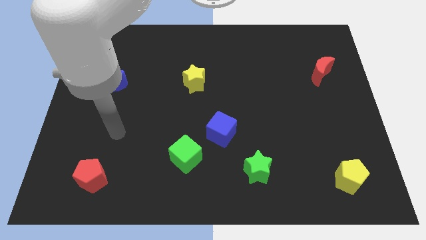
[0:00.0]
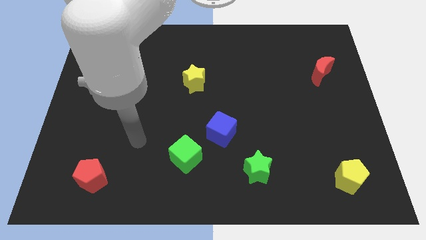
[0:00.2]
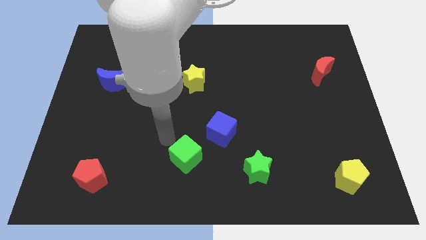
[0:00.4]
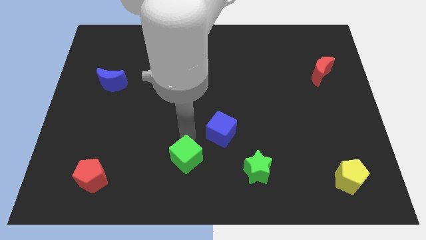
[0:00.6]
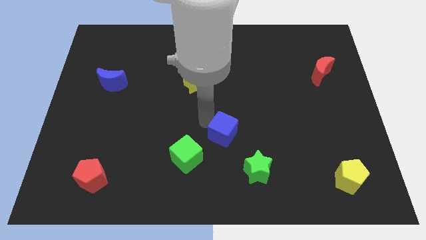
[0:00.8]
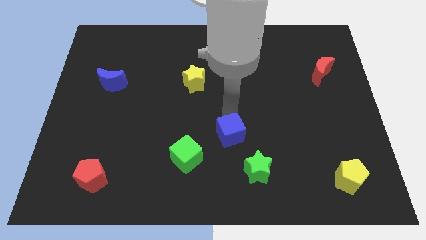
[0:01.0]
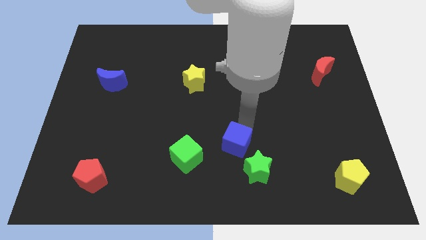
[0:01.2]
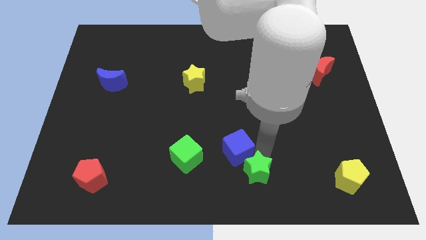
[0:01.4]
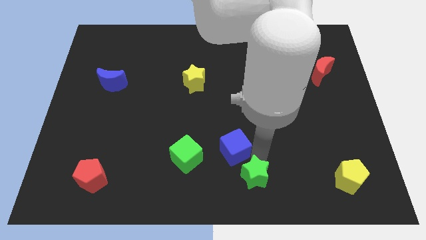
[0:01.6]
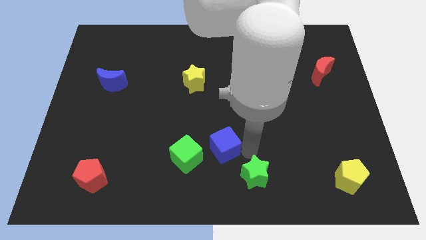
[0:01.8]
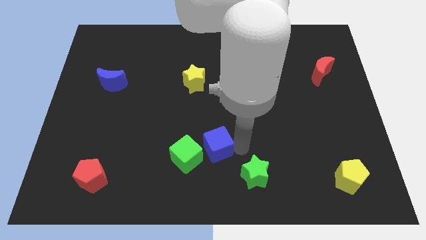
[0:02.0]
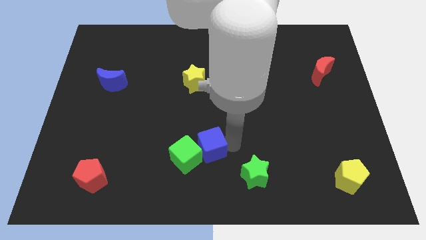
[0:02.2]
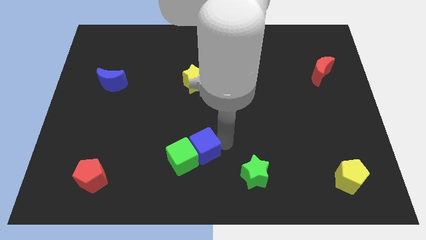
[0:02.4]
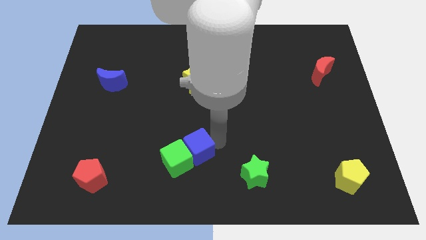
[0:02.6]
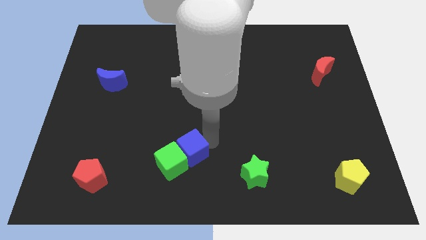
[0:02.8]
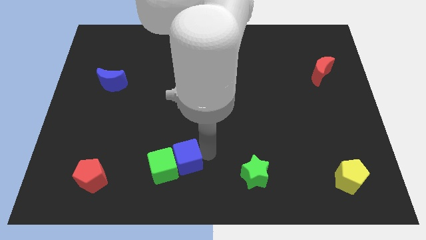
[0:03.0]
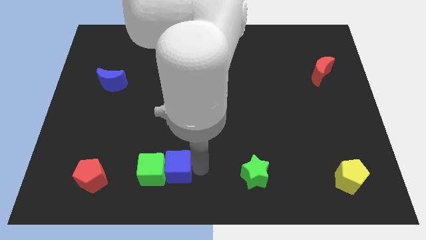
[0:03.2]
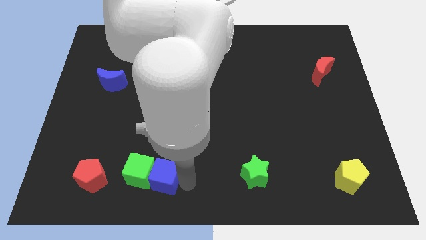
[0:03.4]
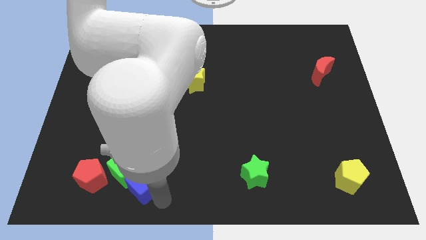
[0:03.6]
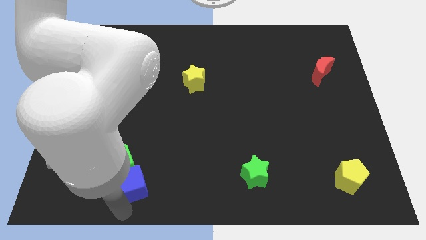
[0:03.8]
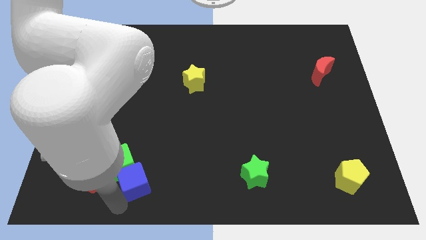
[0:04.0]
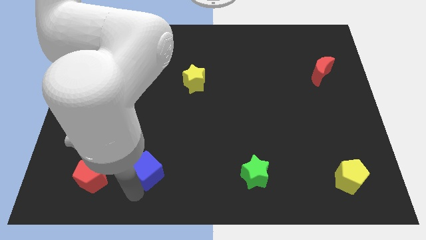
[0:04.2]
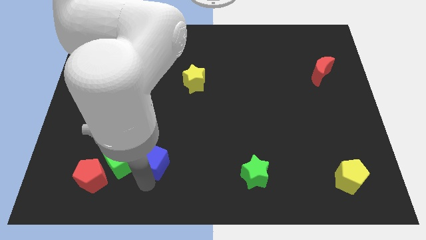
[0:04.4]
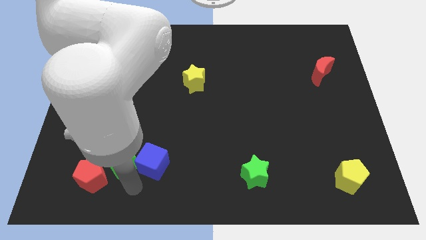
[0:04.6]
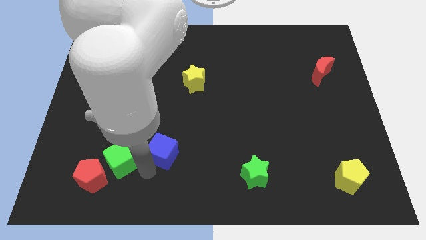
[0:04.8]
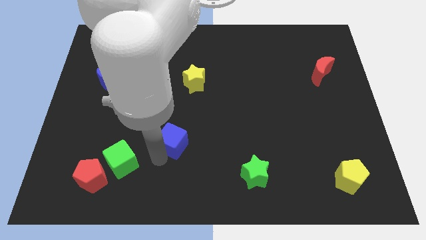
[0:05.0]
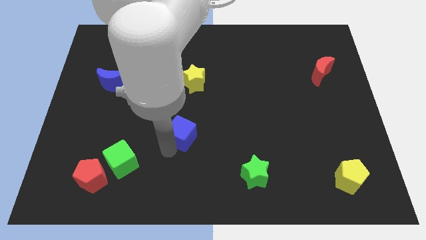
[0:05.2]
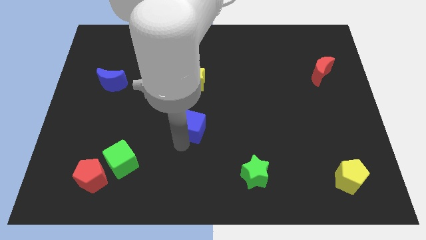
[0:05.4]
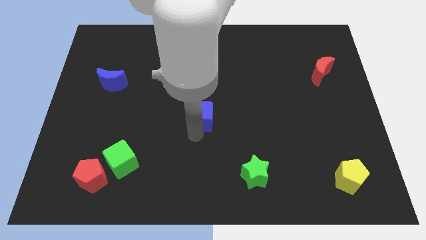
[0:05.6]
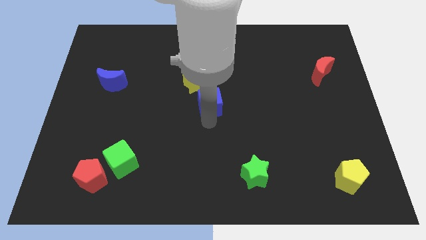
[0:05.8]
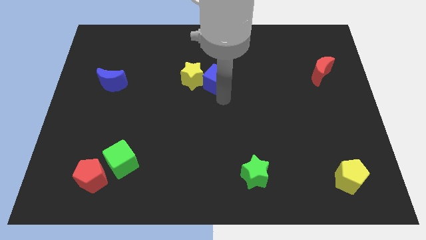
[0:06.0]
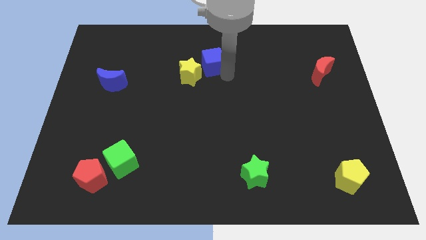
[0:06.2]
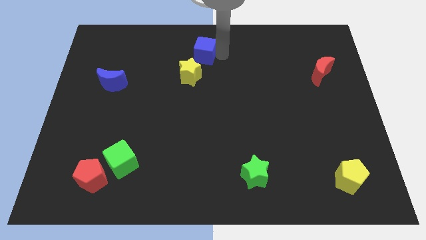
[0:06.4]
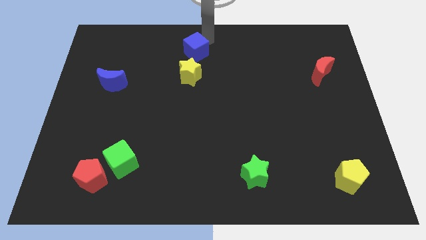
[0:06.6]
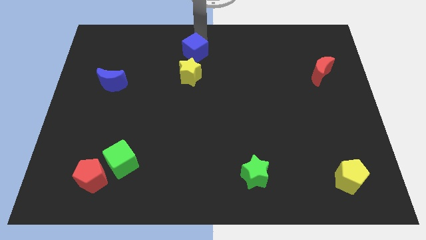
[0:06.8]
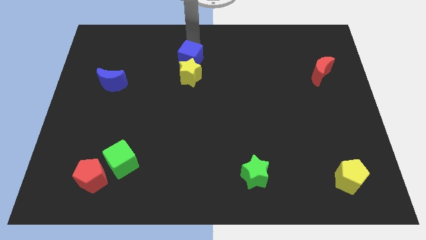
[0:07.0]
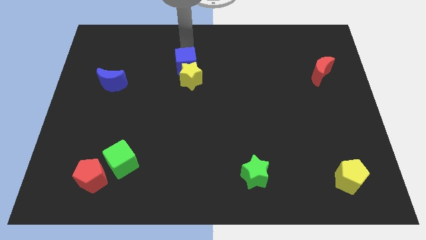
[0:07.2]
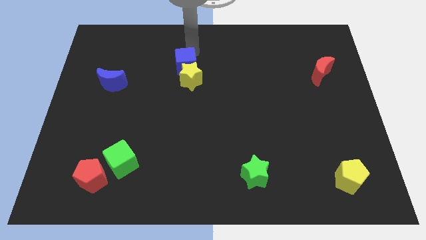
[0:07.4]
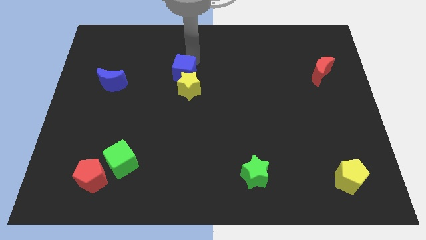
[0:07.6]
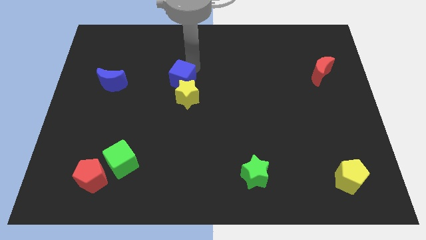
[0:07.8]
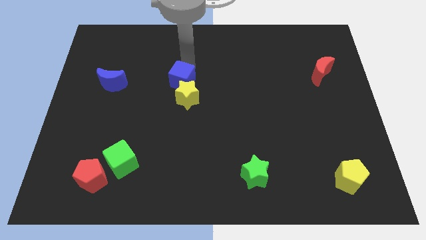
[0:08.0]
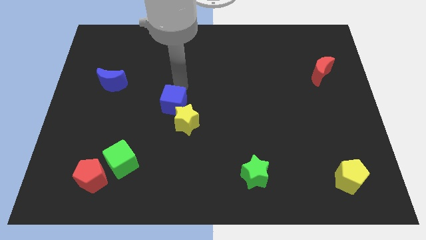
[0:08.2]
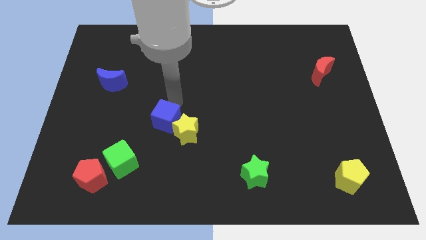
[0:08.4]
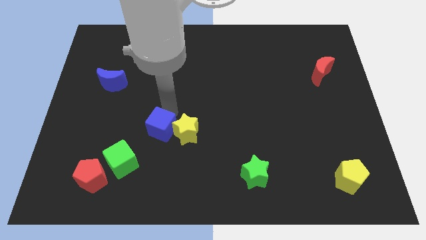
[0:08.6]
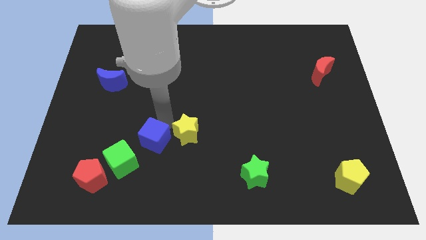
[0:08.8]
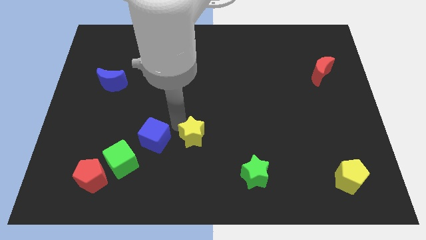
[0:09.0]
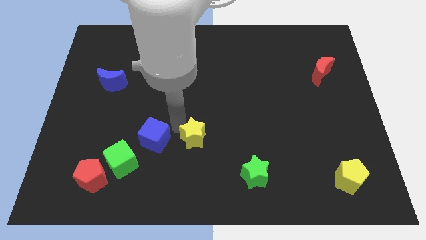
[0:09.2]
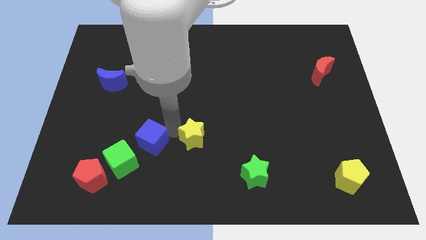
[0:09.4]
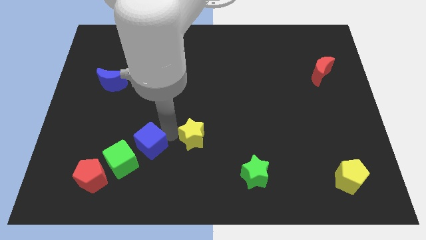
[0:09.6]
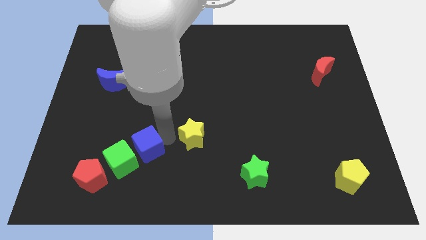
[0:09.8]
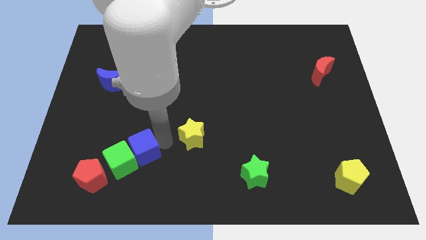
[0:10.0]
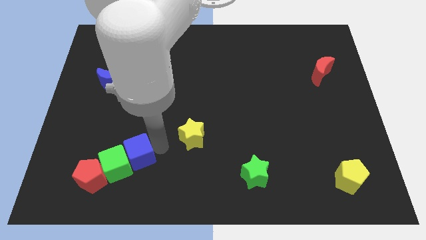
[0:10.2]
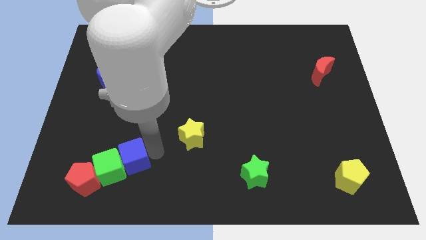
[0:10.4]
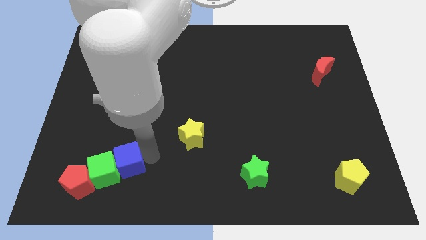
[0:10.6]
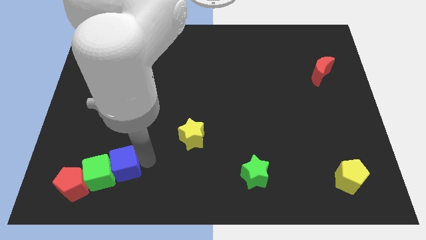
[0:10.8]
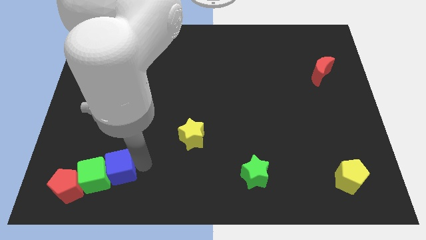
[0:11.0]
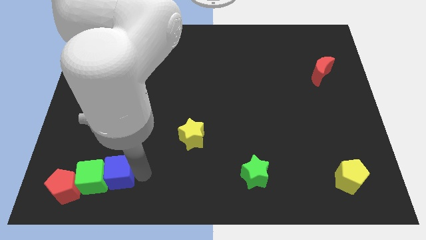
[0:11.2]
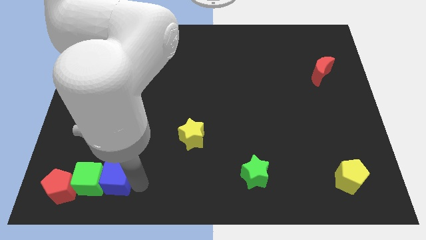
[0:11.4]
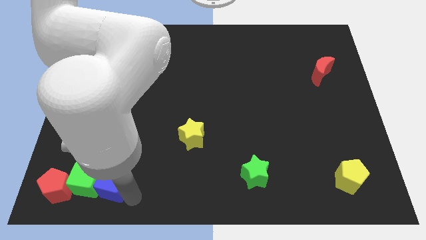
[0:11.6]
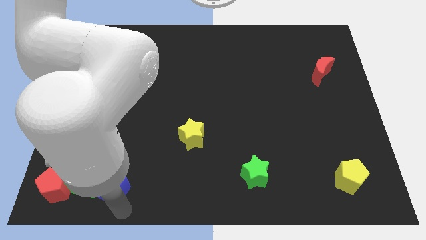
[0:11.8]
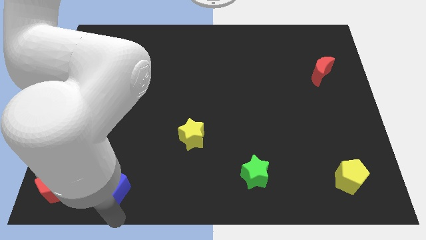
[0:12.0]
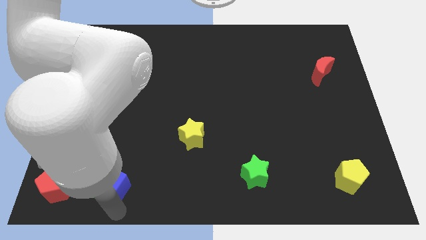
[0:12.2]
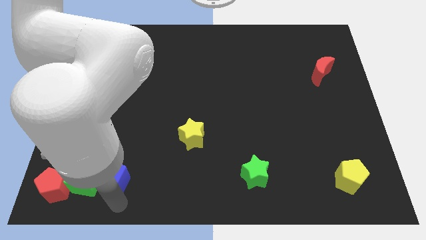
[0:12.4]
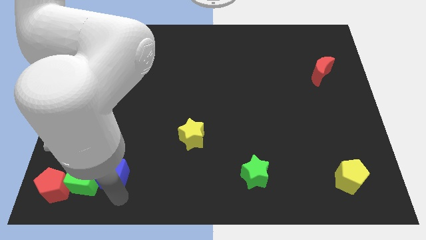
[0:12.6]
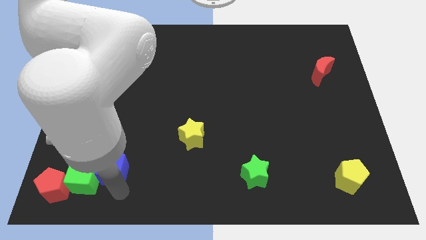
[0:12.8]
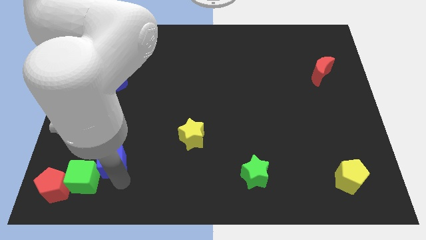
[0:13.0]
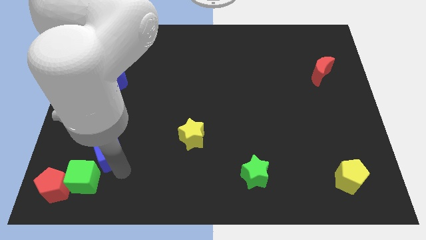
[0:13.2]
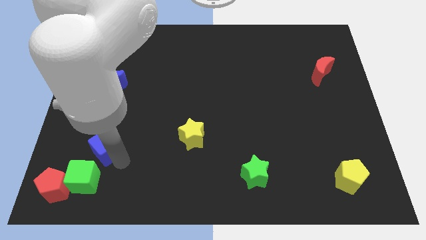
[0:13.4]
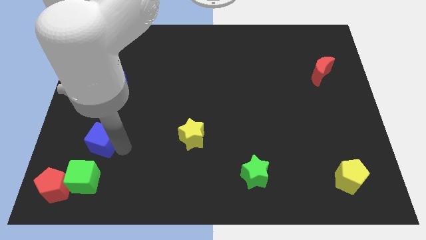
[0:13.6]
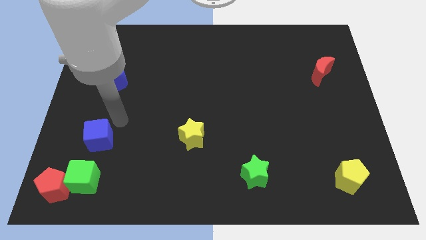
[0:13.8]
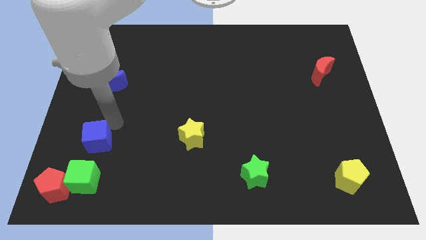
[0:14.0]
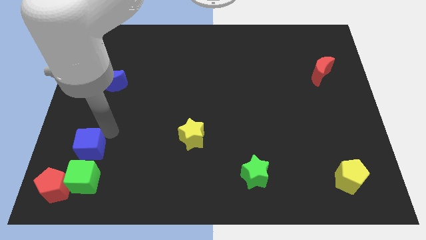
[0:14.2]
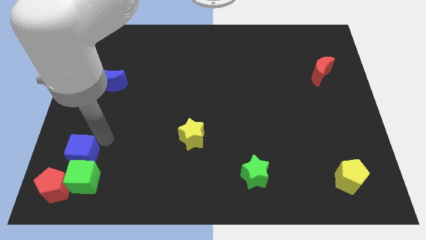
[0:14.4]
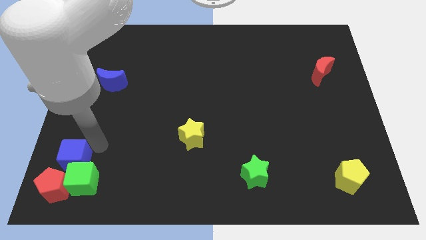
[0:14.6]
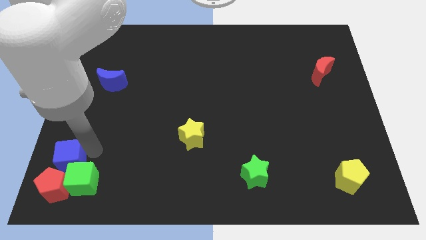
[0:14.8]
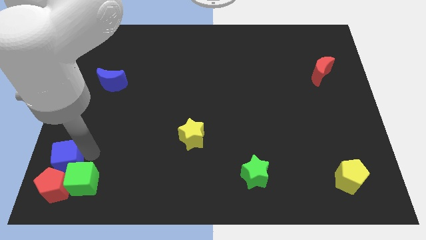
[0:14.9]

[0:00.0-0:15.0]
put the blue cube close to the red pentagon
